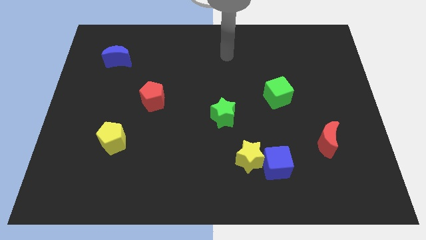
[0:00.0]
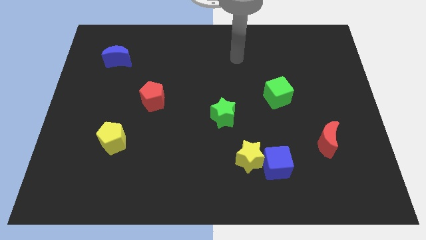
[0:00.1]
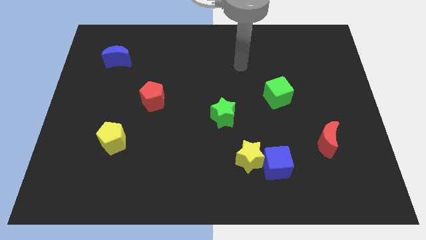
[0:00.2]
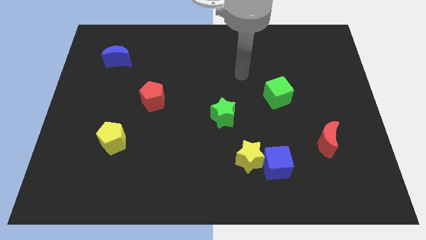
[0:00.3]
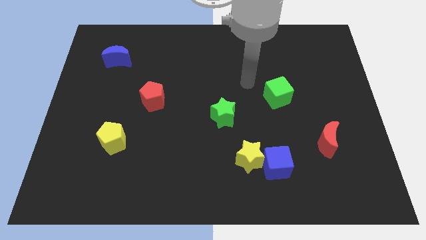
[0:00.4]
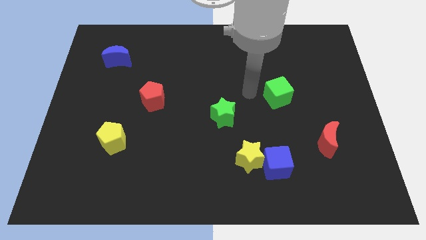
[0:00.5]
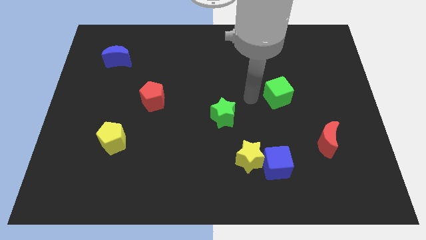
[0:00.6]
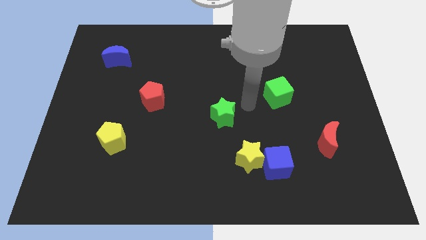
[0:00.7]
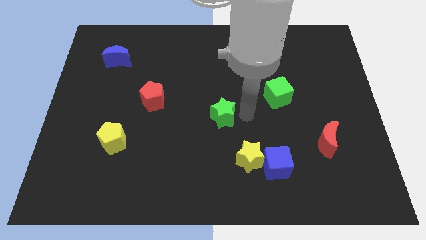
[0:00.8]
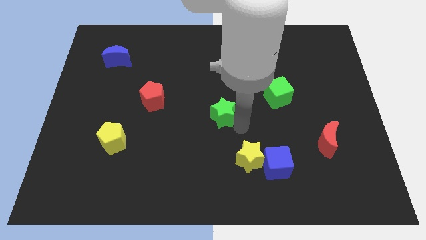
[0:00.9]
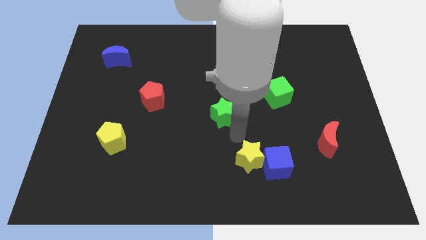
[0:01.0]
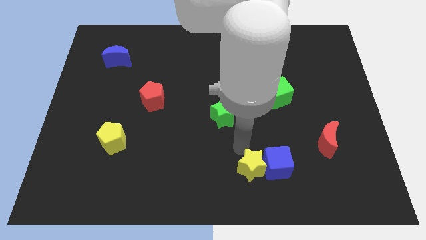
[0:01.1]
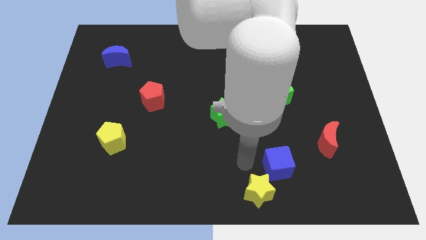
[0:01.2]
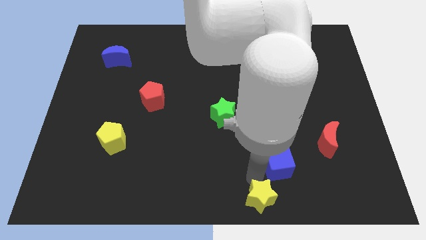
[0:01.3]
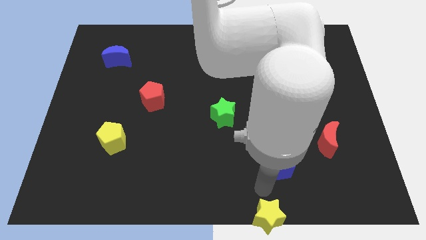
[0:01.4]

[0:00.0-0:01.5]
pull the blue cube apart from the yellow star

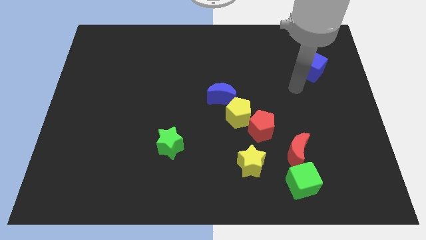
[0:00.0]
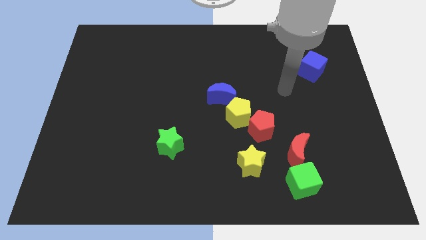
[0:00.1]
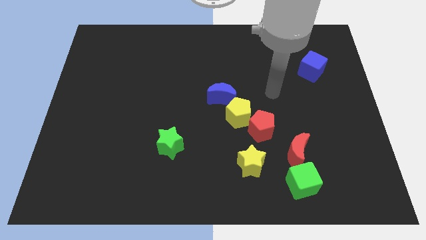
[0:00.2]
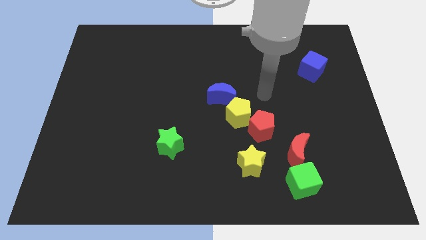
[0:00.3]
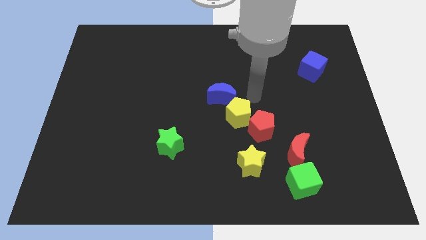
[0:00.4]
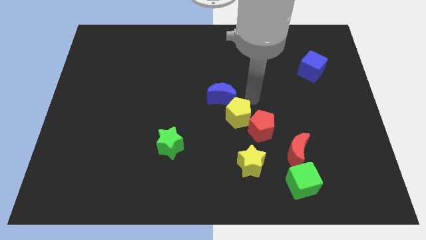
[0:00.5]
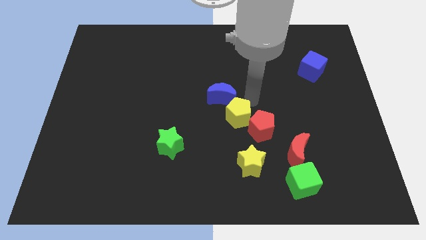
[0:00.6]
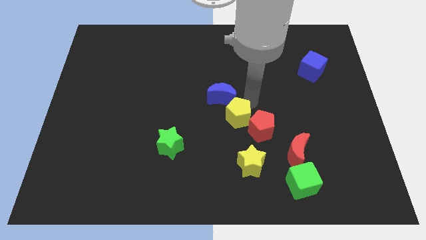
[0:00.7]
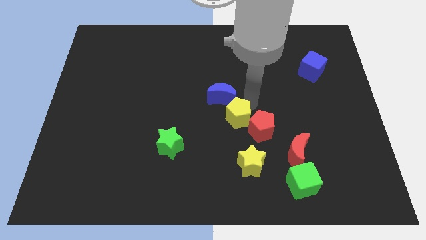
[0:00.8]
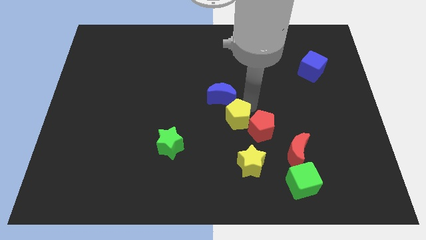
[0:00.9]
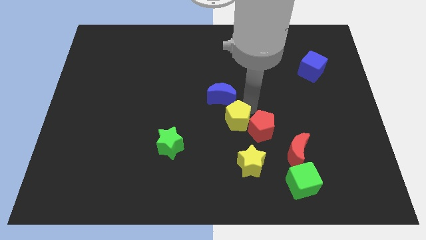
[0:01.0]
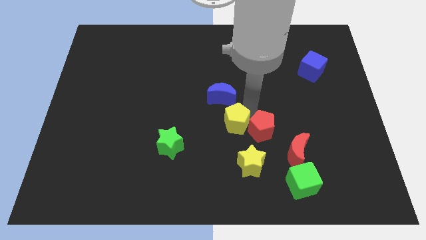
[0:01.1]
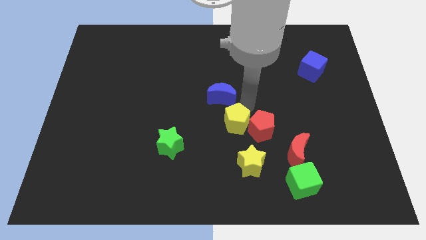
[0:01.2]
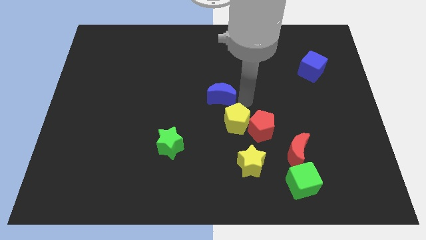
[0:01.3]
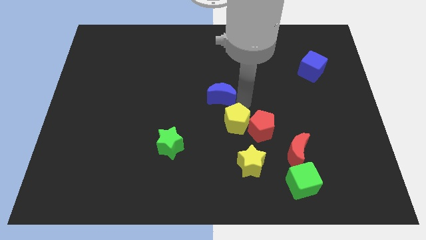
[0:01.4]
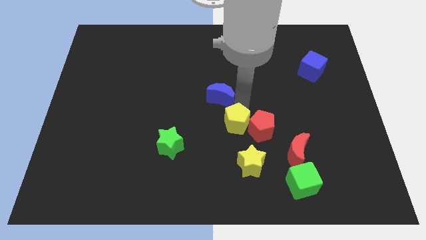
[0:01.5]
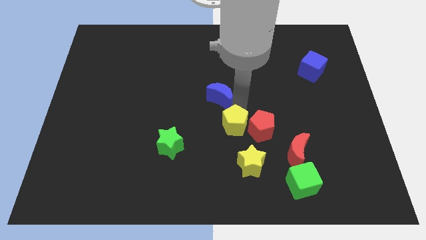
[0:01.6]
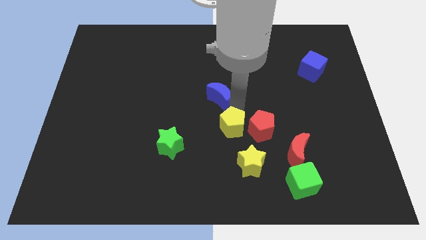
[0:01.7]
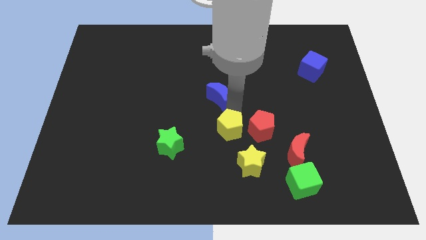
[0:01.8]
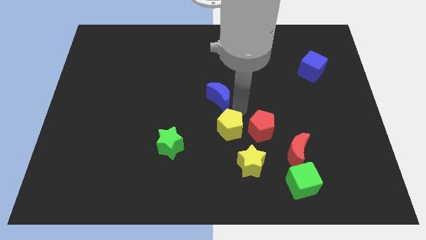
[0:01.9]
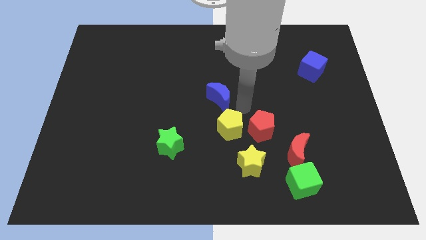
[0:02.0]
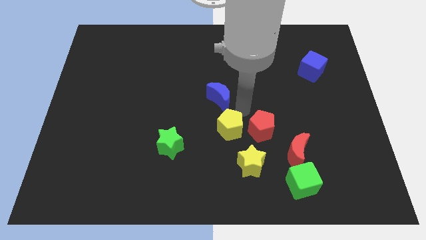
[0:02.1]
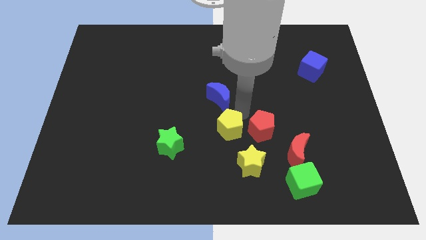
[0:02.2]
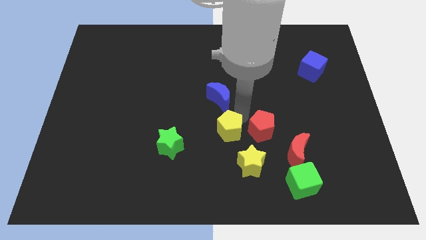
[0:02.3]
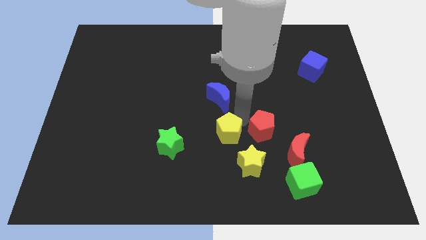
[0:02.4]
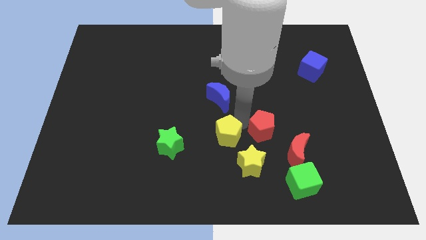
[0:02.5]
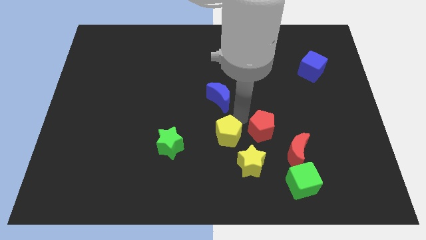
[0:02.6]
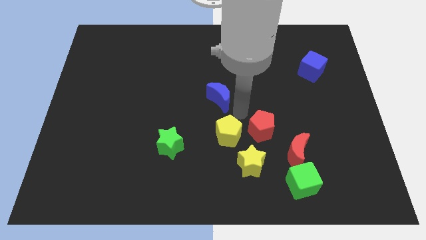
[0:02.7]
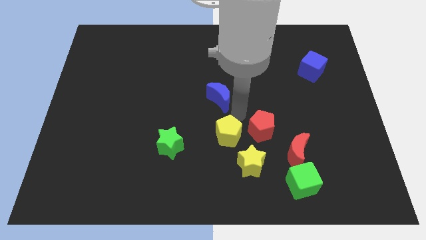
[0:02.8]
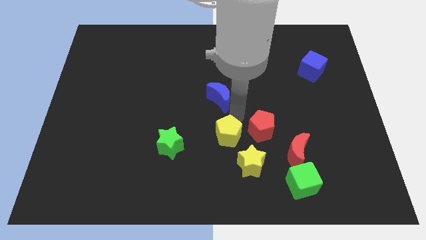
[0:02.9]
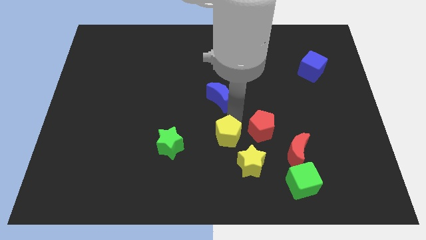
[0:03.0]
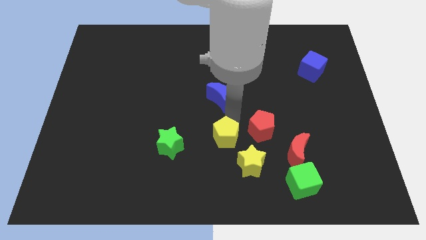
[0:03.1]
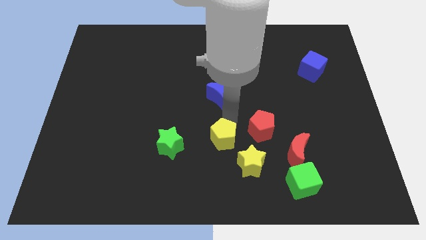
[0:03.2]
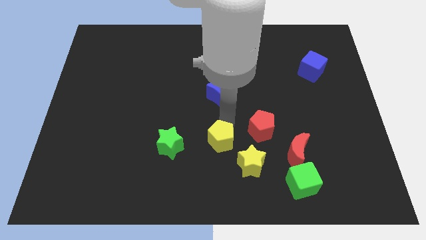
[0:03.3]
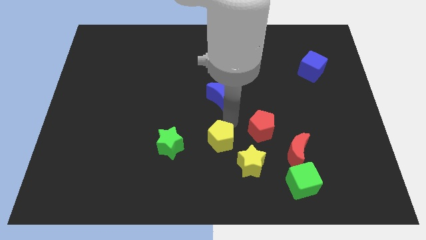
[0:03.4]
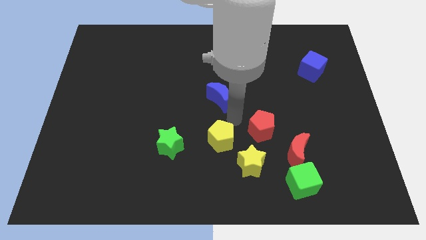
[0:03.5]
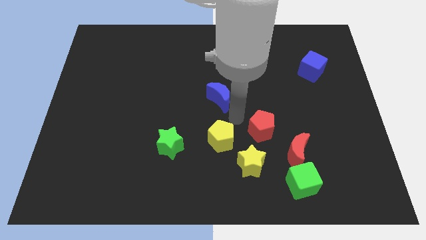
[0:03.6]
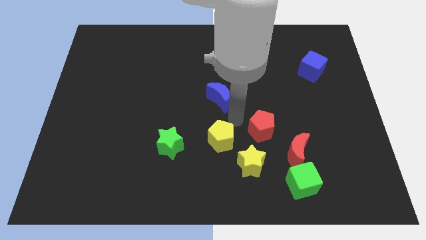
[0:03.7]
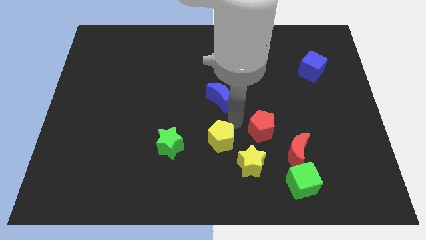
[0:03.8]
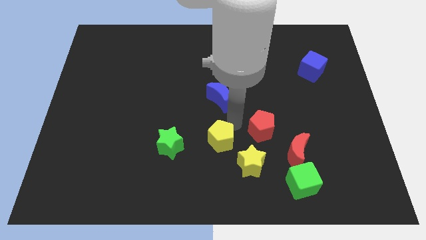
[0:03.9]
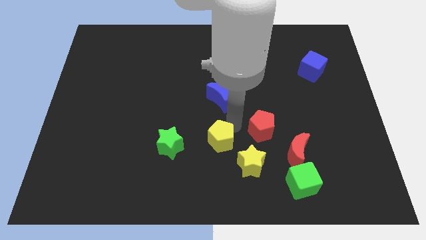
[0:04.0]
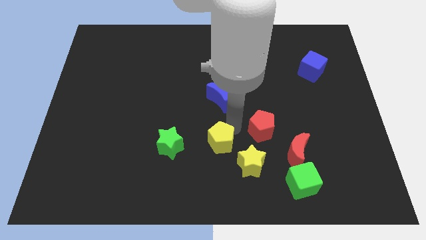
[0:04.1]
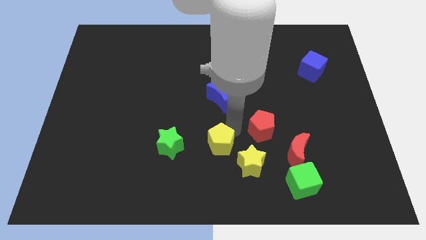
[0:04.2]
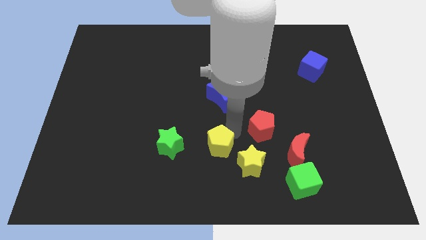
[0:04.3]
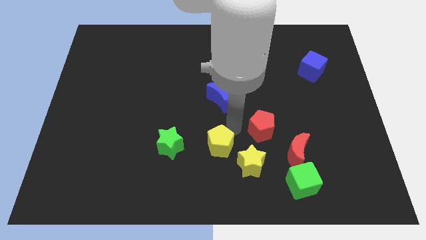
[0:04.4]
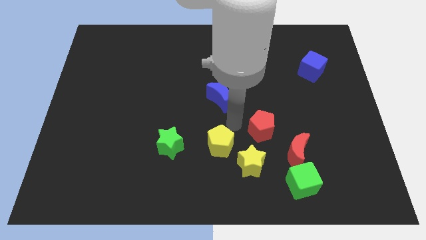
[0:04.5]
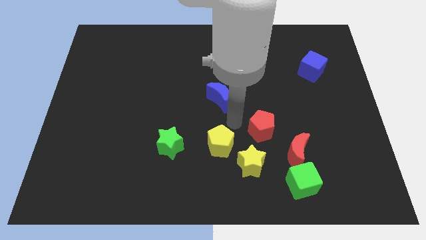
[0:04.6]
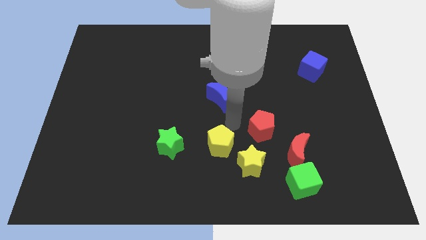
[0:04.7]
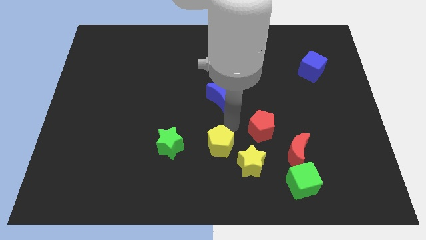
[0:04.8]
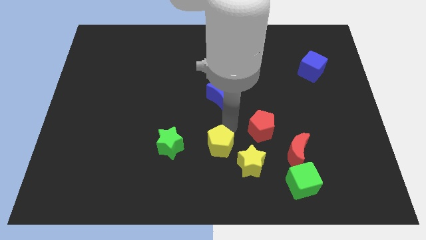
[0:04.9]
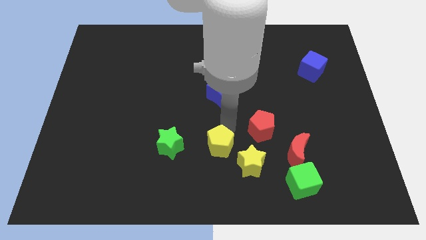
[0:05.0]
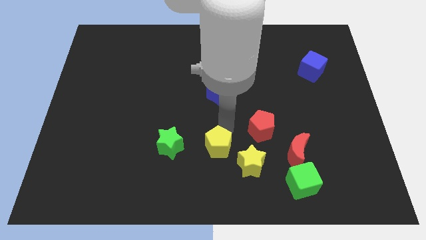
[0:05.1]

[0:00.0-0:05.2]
move the yellow pentagon away from the red pentagon and blue moon

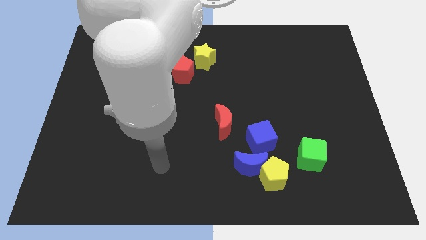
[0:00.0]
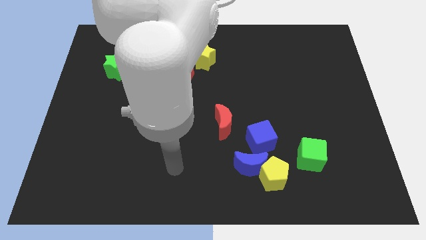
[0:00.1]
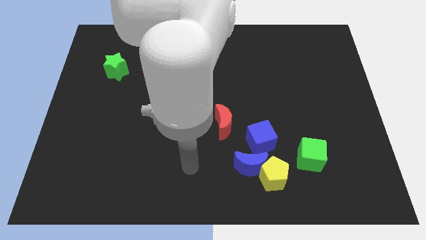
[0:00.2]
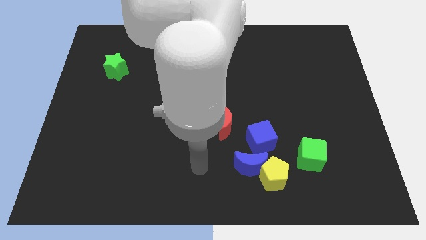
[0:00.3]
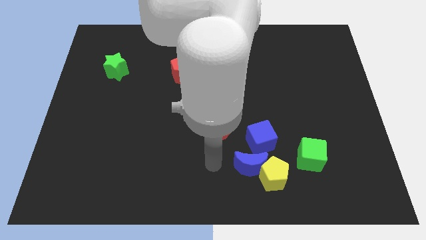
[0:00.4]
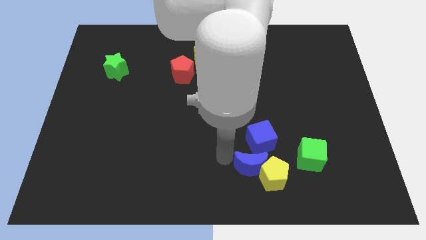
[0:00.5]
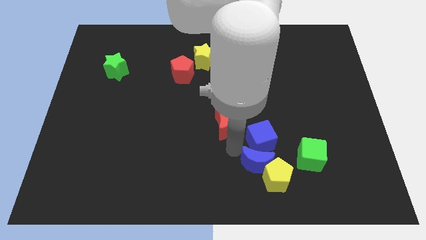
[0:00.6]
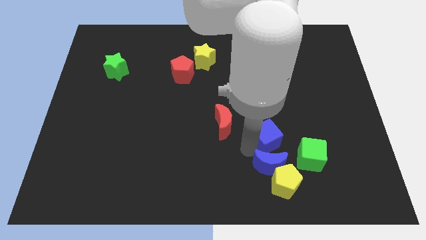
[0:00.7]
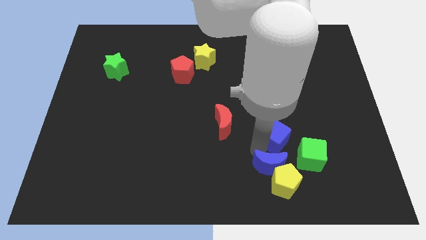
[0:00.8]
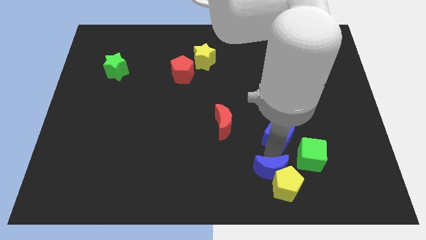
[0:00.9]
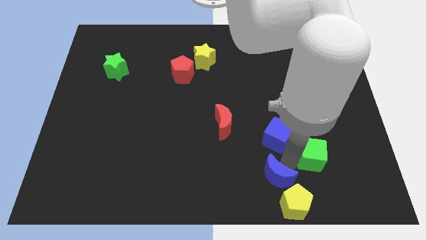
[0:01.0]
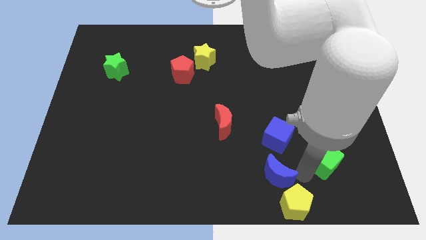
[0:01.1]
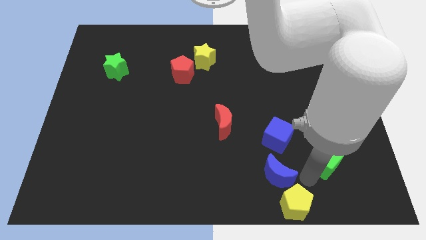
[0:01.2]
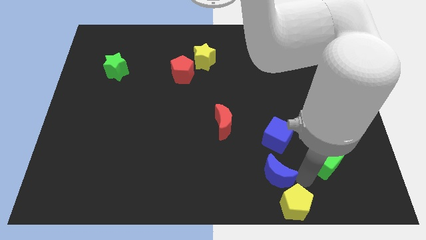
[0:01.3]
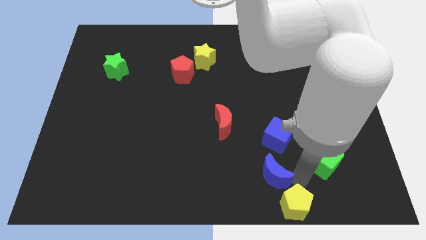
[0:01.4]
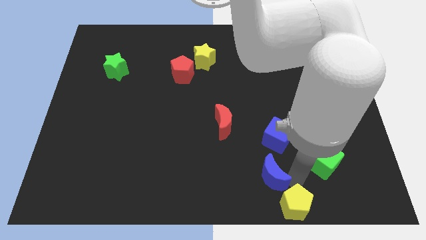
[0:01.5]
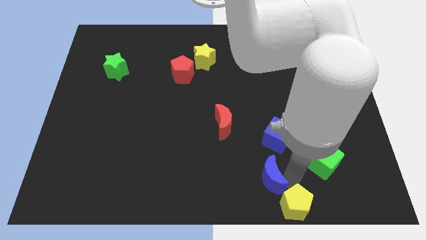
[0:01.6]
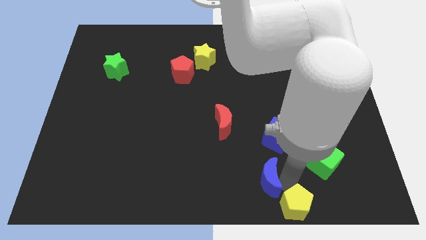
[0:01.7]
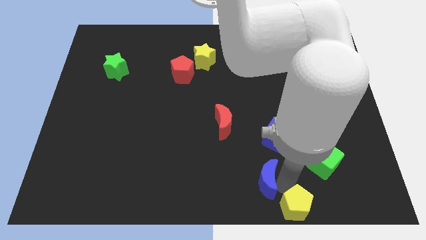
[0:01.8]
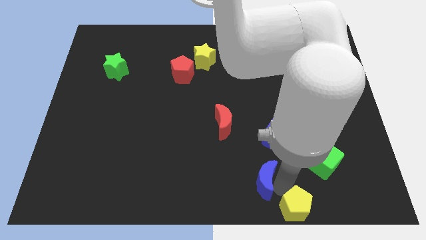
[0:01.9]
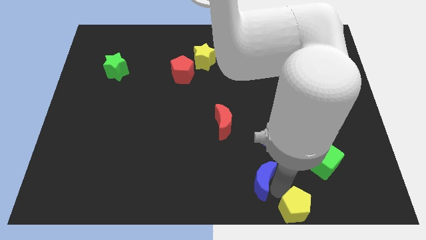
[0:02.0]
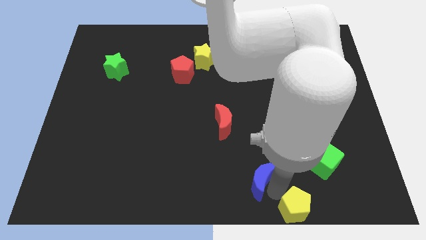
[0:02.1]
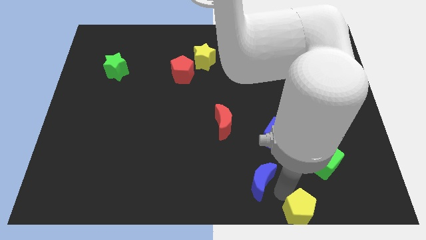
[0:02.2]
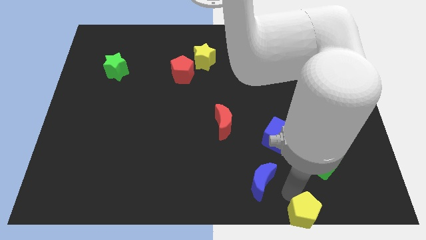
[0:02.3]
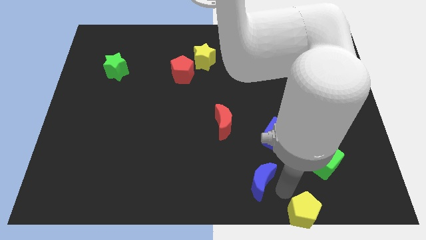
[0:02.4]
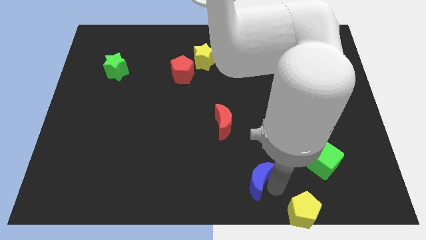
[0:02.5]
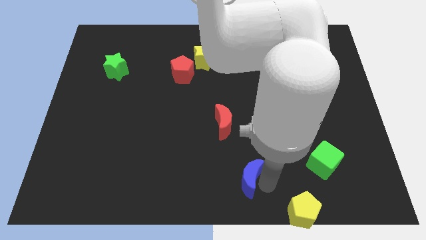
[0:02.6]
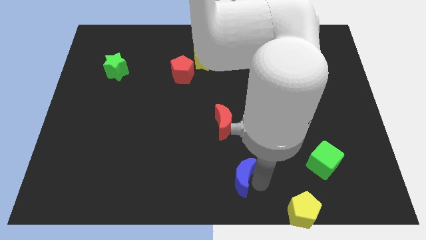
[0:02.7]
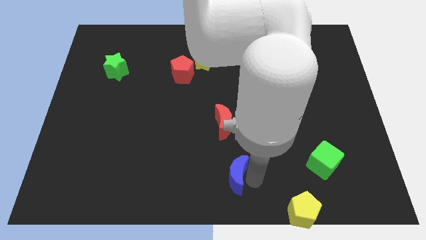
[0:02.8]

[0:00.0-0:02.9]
move the blue moon away from the yellow pentagon and blue cube
